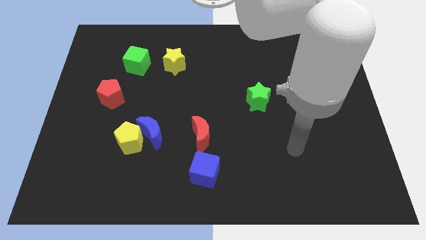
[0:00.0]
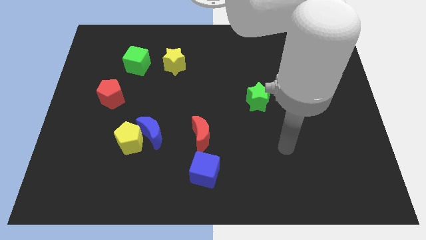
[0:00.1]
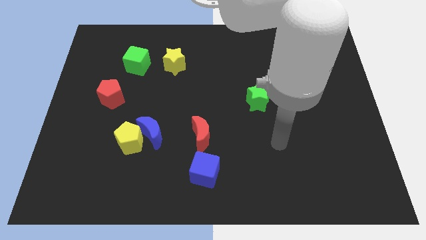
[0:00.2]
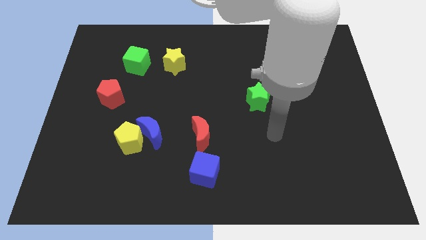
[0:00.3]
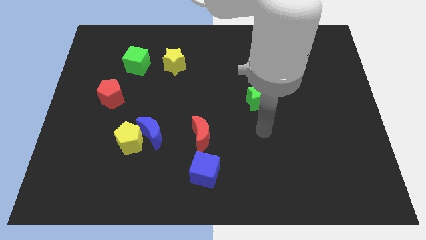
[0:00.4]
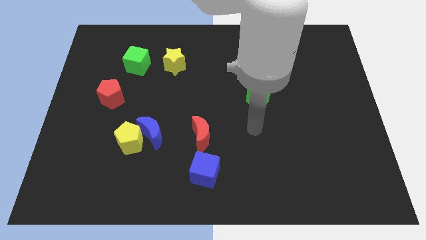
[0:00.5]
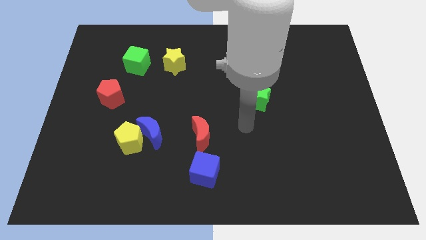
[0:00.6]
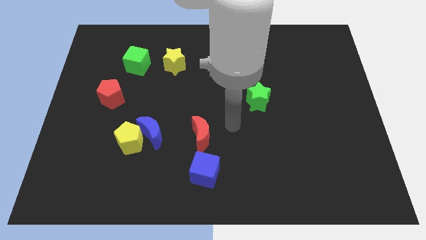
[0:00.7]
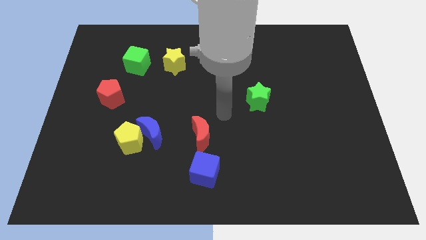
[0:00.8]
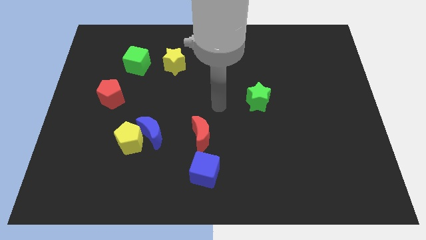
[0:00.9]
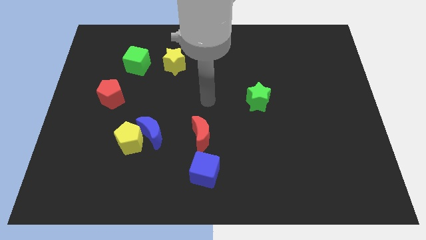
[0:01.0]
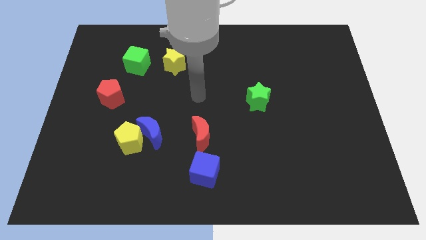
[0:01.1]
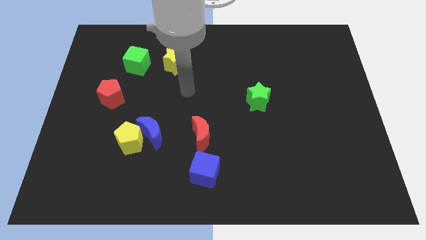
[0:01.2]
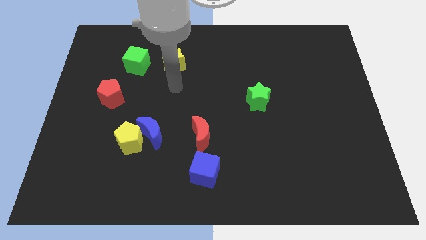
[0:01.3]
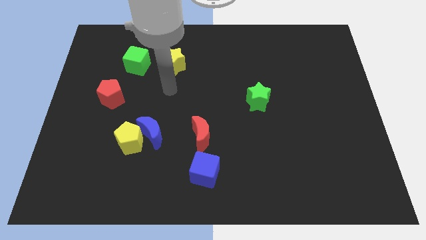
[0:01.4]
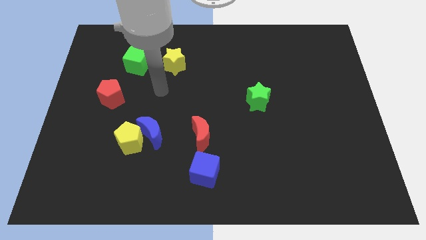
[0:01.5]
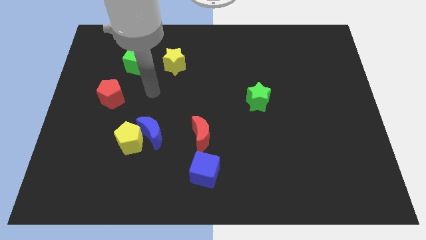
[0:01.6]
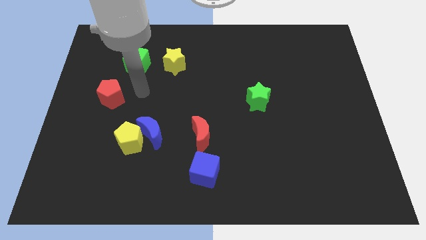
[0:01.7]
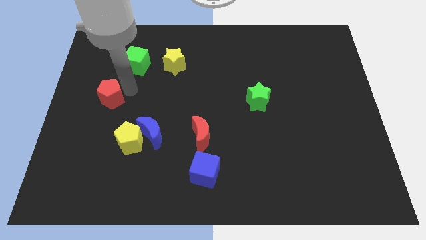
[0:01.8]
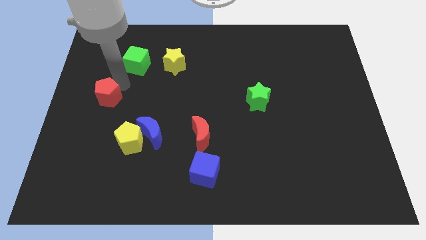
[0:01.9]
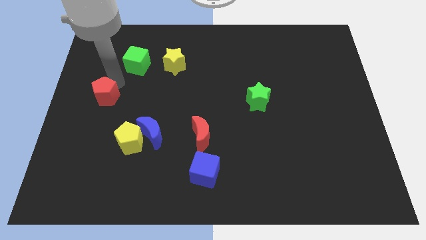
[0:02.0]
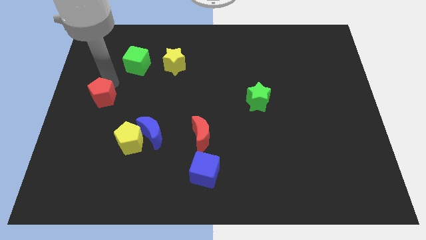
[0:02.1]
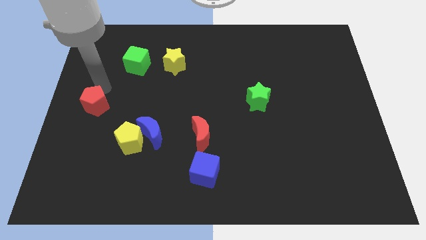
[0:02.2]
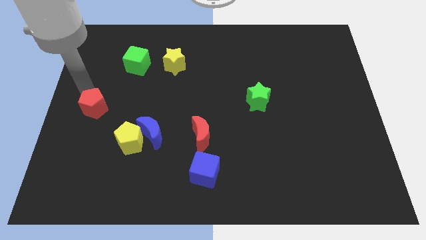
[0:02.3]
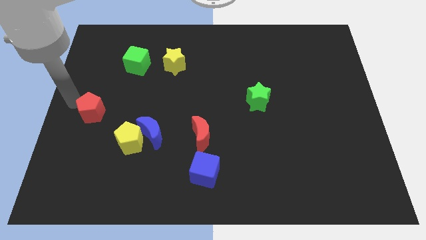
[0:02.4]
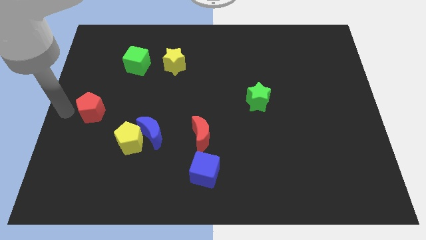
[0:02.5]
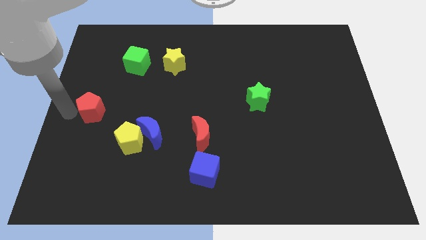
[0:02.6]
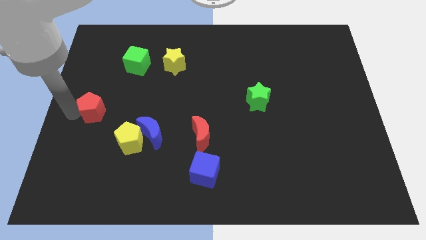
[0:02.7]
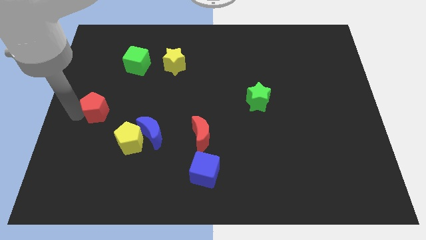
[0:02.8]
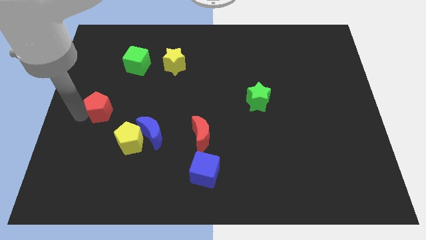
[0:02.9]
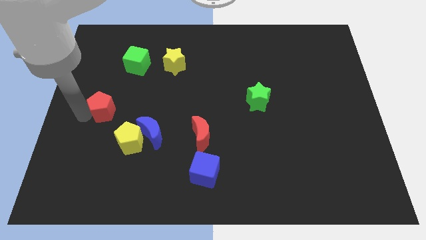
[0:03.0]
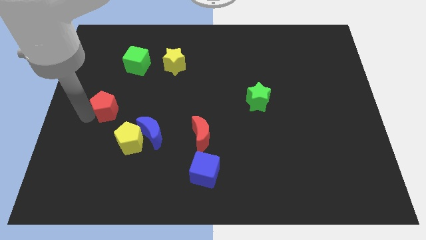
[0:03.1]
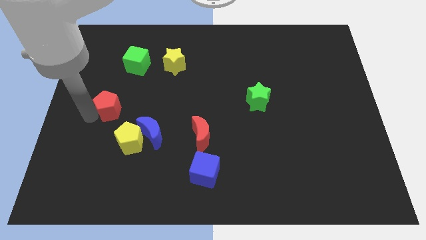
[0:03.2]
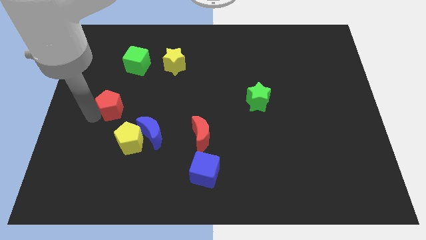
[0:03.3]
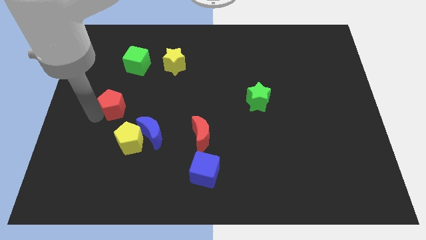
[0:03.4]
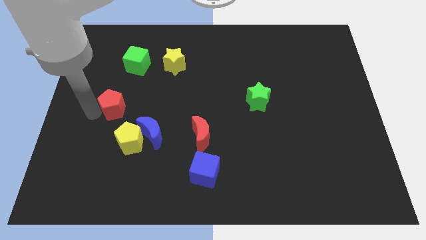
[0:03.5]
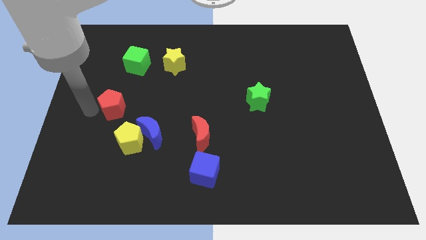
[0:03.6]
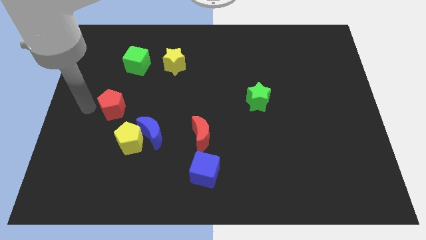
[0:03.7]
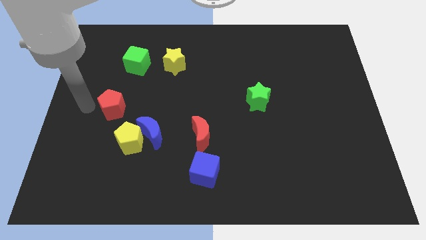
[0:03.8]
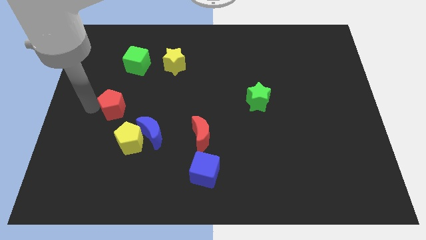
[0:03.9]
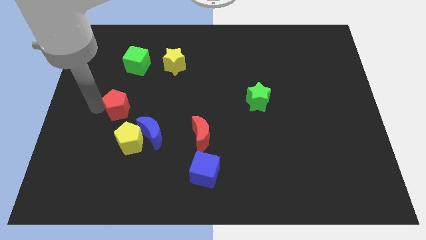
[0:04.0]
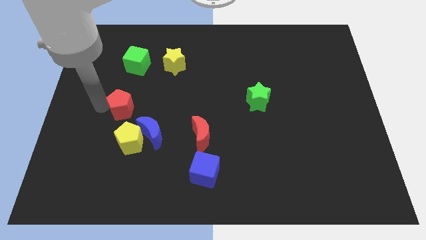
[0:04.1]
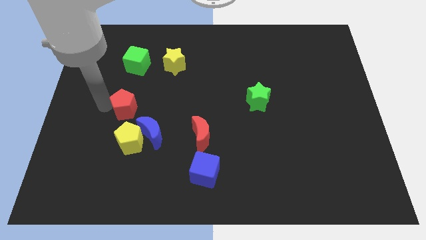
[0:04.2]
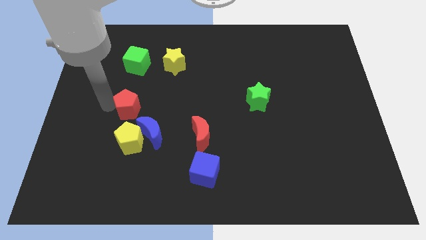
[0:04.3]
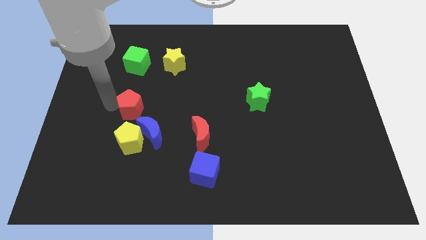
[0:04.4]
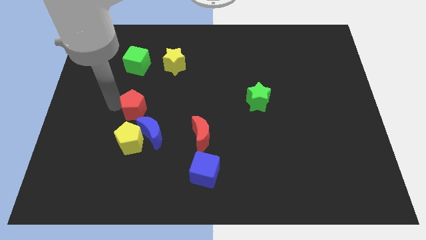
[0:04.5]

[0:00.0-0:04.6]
move the red pentagon a bit downwards and then to the right

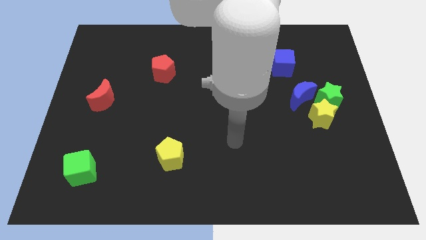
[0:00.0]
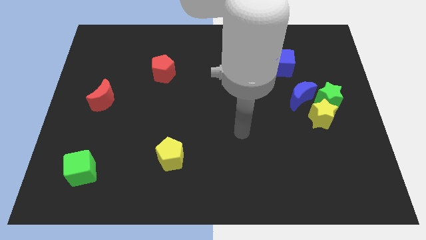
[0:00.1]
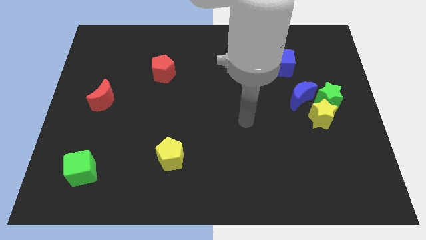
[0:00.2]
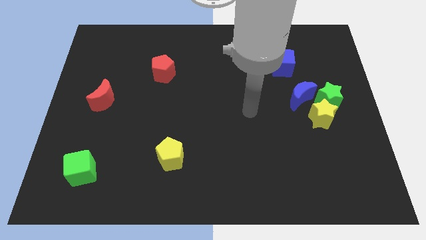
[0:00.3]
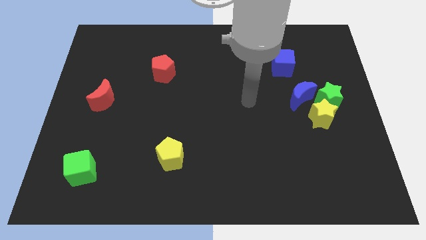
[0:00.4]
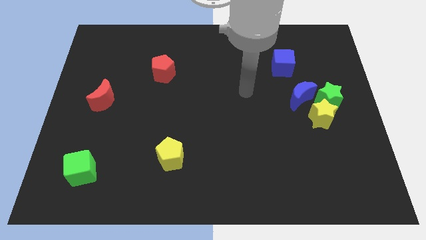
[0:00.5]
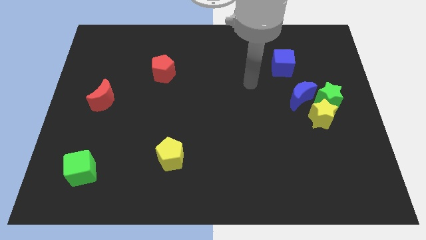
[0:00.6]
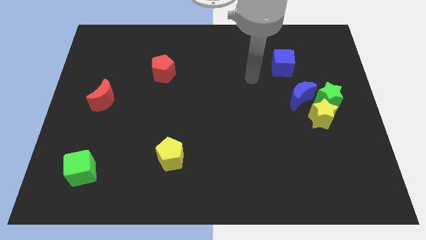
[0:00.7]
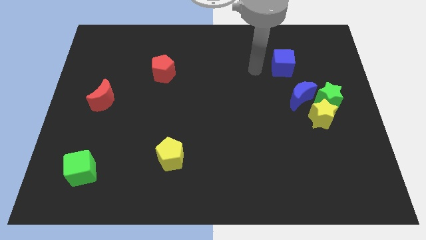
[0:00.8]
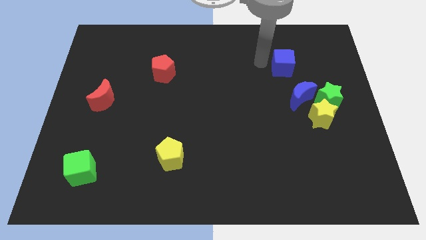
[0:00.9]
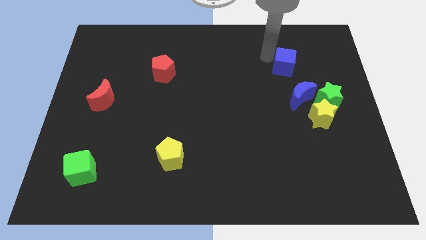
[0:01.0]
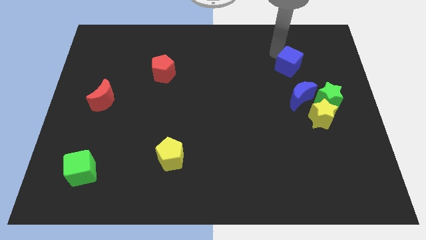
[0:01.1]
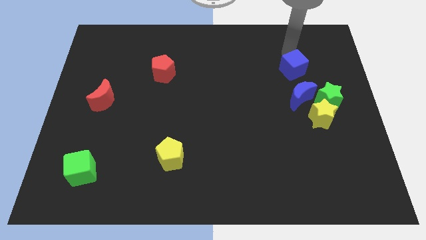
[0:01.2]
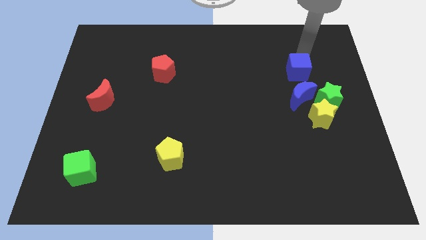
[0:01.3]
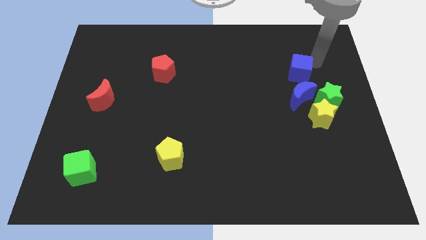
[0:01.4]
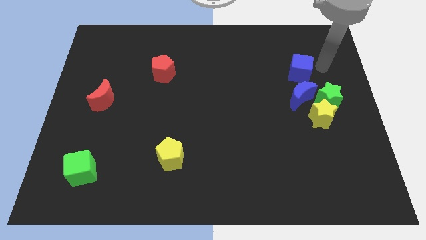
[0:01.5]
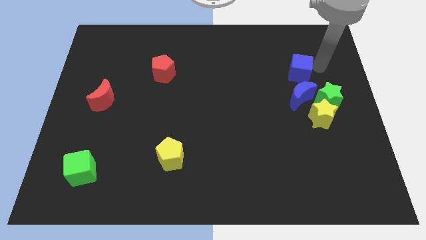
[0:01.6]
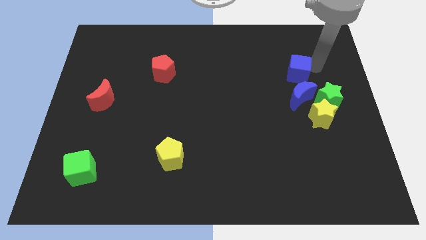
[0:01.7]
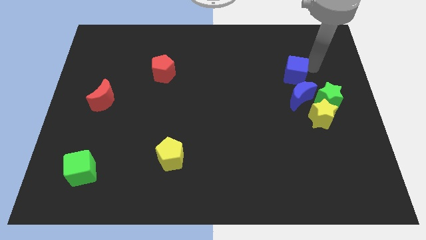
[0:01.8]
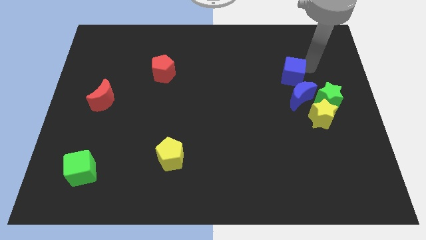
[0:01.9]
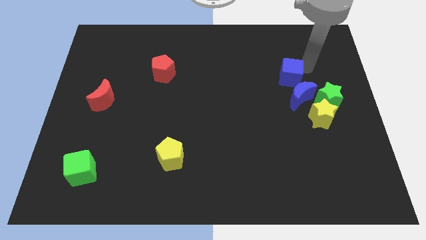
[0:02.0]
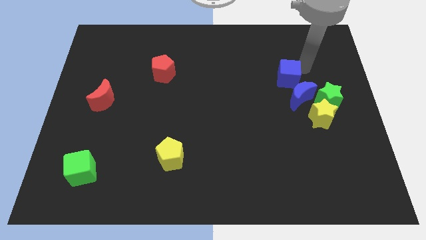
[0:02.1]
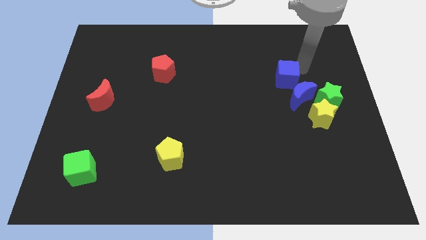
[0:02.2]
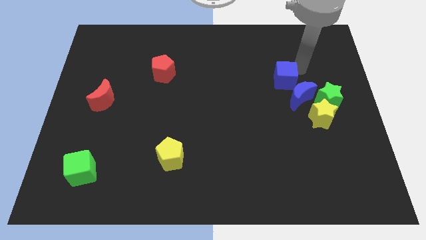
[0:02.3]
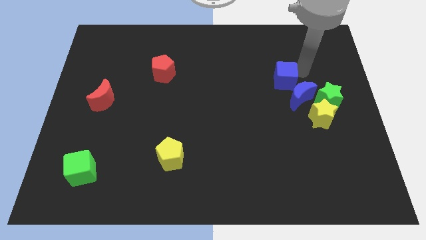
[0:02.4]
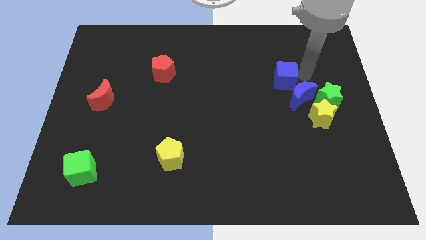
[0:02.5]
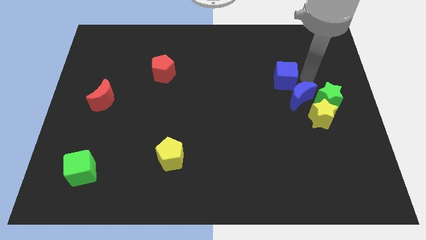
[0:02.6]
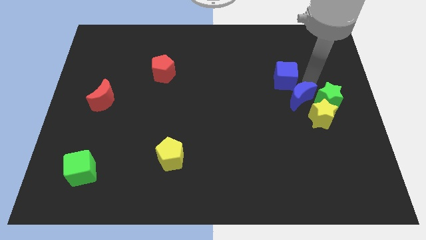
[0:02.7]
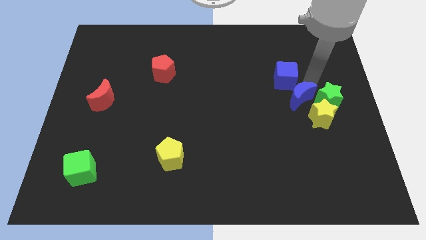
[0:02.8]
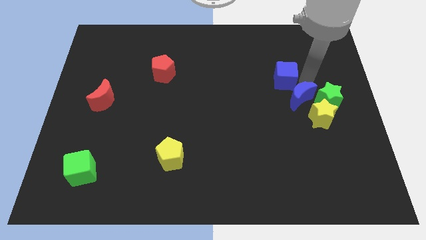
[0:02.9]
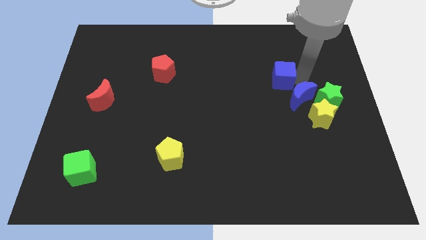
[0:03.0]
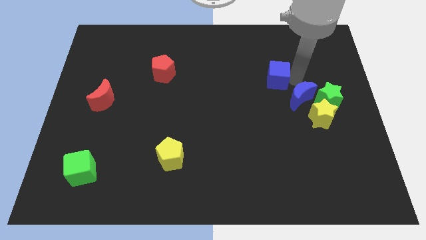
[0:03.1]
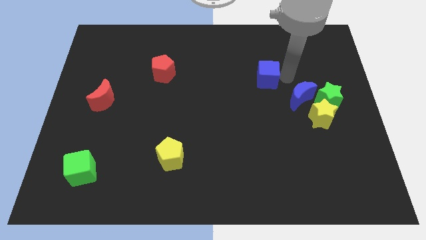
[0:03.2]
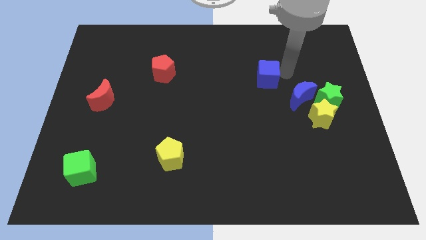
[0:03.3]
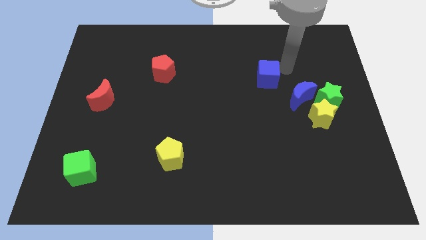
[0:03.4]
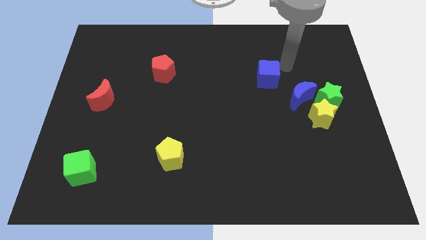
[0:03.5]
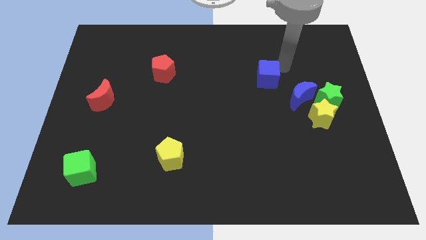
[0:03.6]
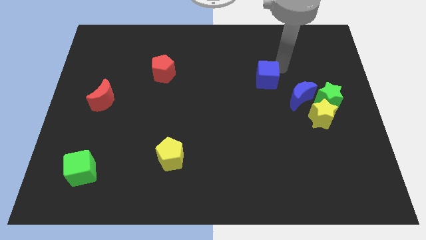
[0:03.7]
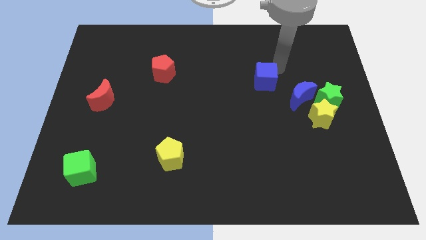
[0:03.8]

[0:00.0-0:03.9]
slightly move the blue cube downwards and to the left diagonally
